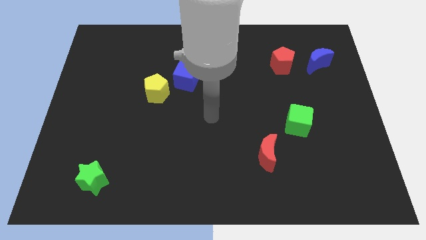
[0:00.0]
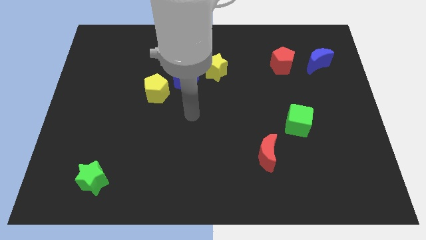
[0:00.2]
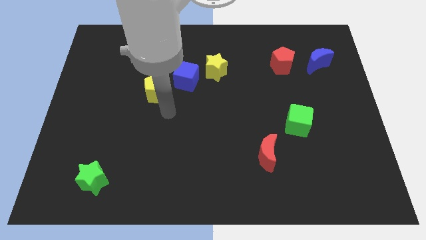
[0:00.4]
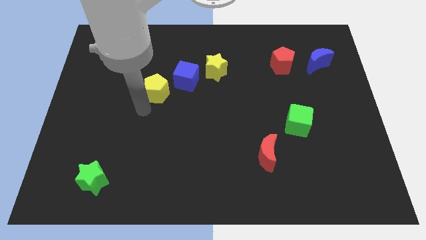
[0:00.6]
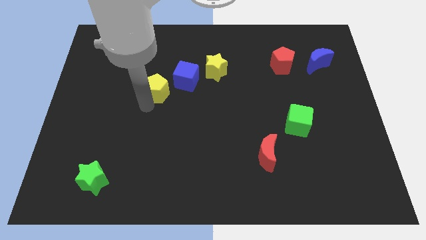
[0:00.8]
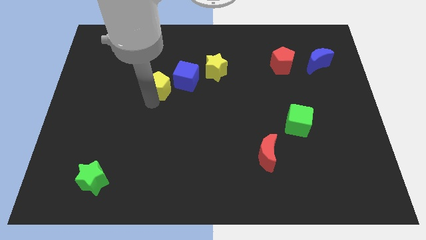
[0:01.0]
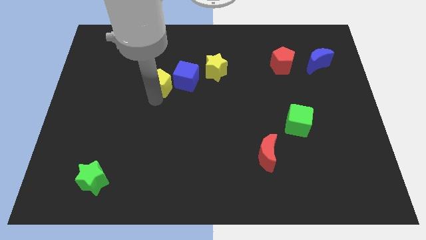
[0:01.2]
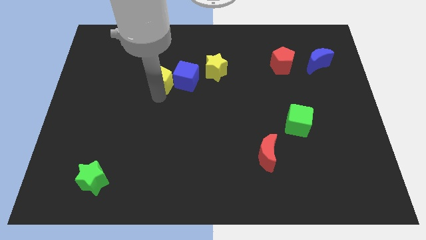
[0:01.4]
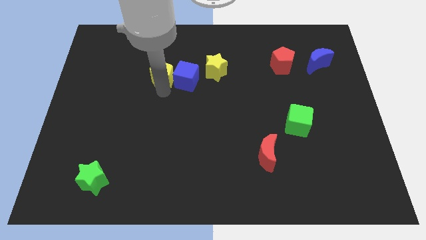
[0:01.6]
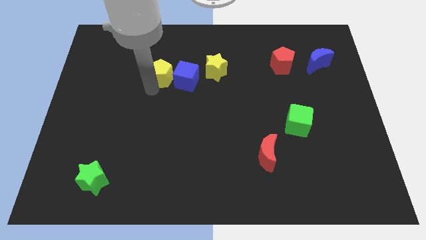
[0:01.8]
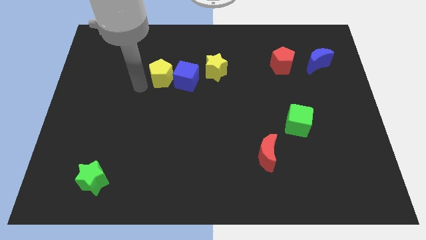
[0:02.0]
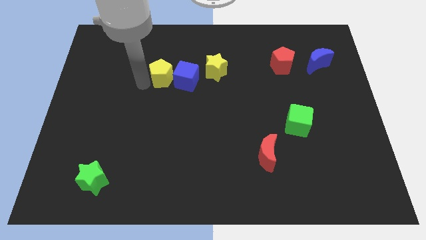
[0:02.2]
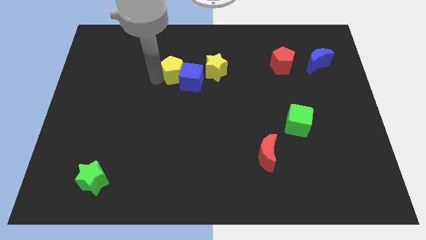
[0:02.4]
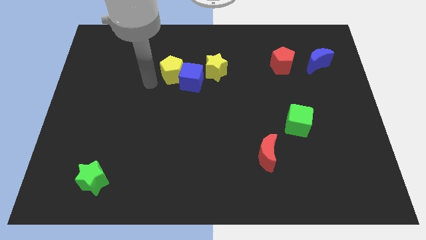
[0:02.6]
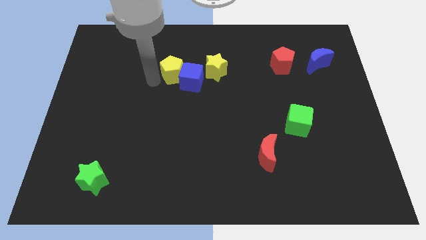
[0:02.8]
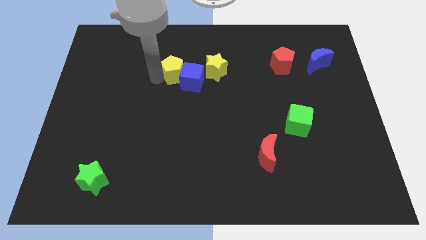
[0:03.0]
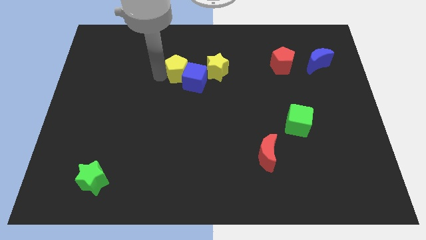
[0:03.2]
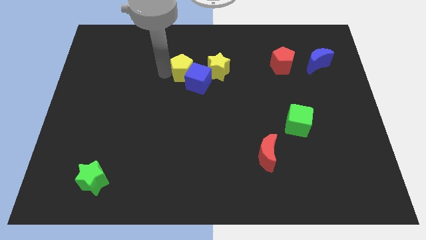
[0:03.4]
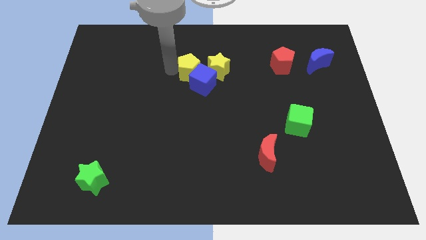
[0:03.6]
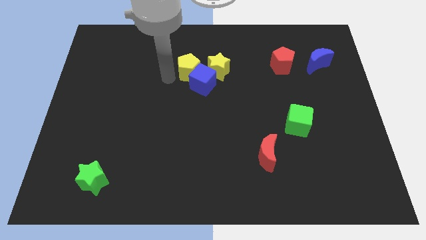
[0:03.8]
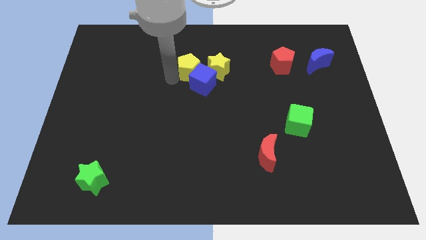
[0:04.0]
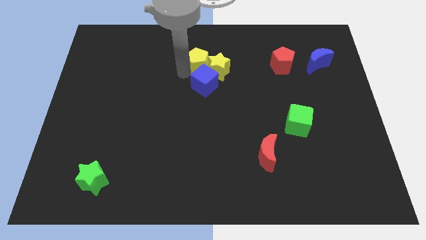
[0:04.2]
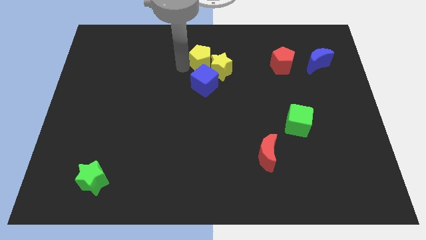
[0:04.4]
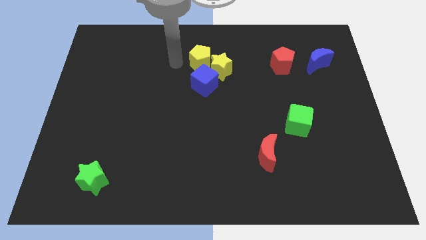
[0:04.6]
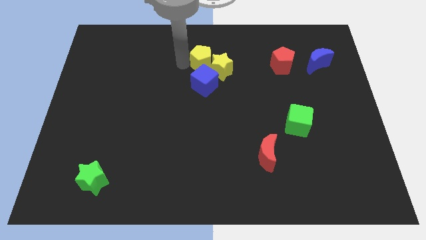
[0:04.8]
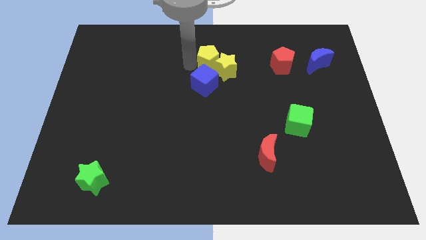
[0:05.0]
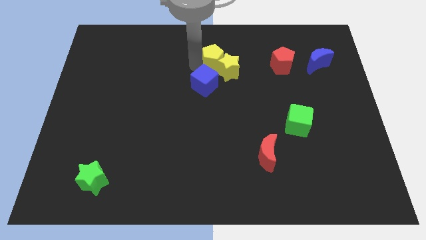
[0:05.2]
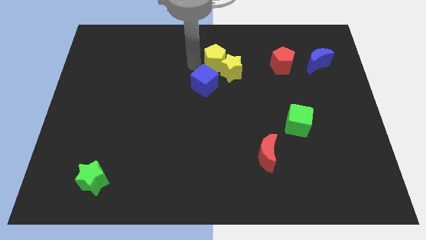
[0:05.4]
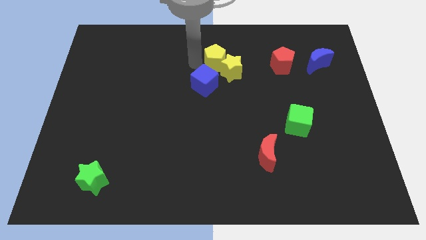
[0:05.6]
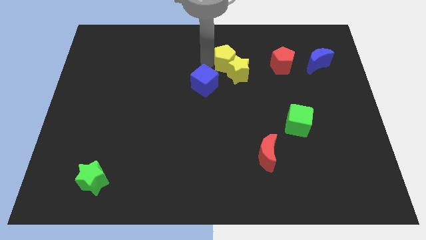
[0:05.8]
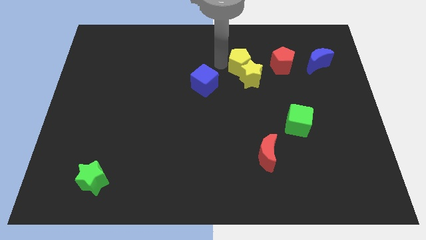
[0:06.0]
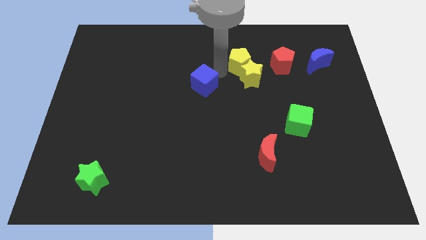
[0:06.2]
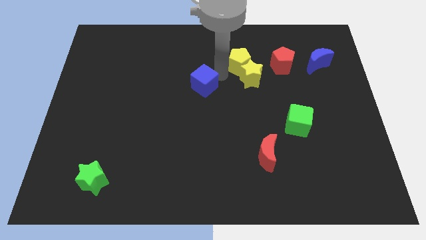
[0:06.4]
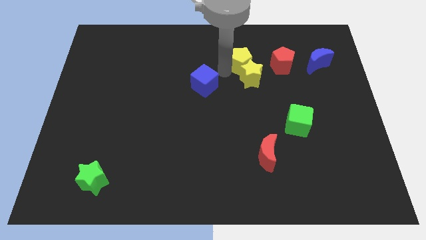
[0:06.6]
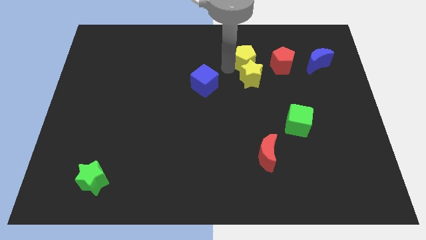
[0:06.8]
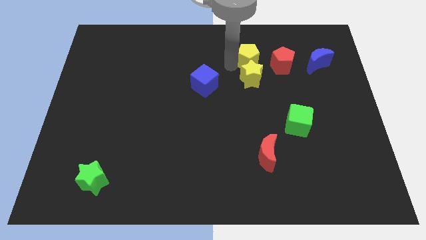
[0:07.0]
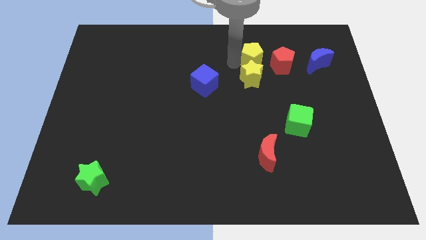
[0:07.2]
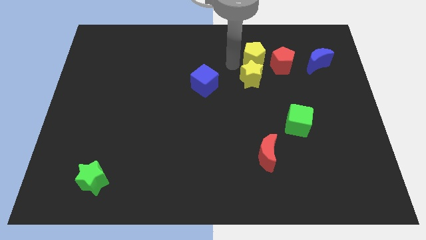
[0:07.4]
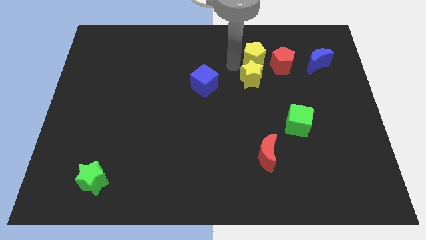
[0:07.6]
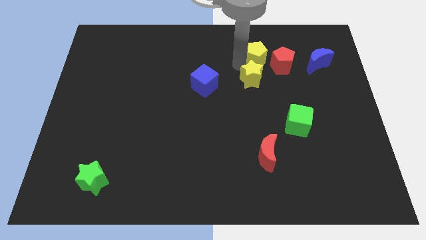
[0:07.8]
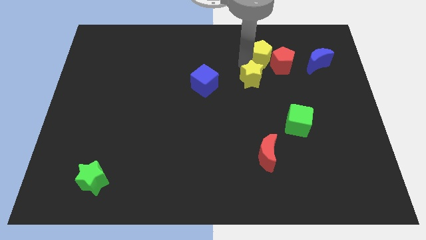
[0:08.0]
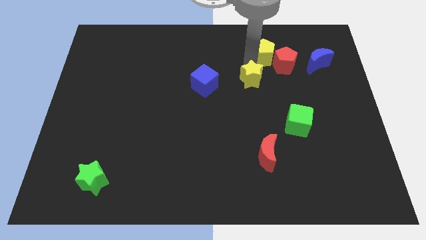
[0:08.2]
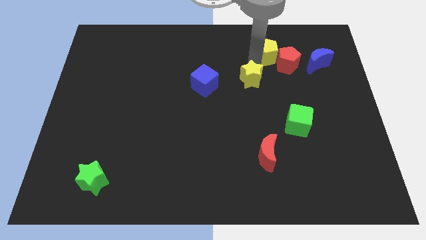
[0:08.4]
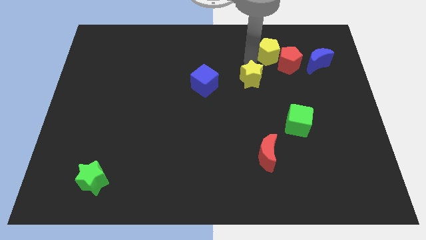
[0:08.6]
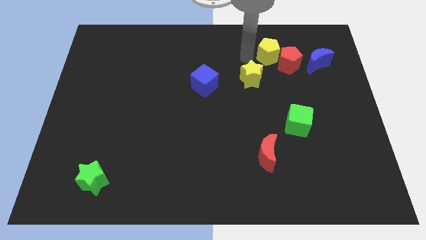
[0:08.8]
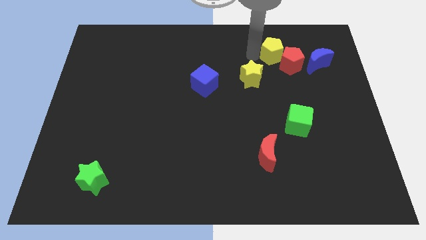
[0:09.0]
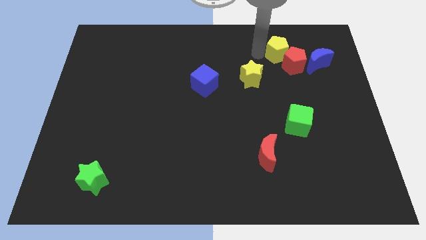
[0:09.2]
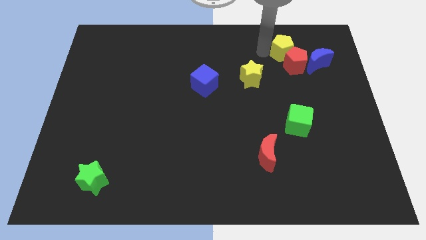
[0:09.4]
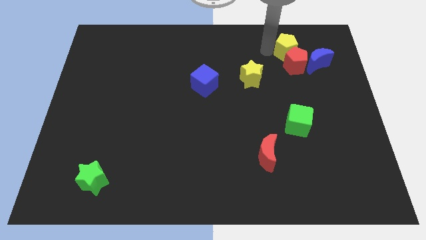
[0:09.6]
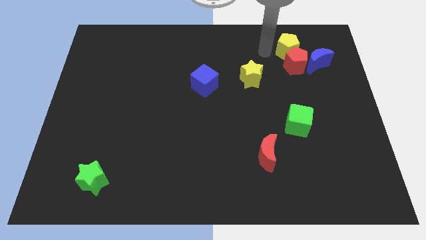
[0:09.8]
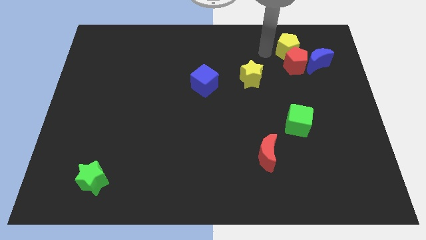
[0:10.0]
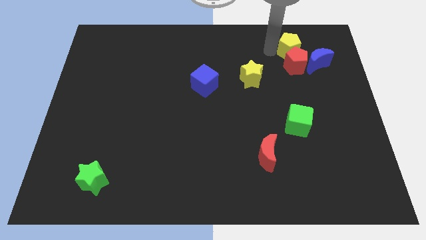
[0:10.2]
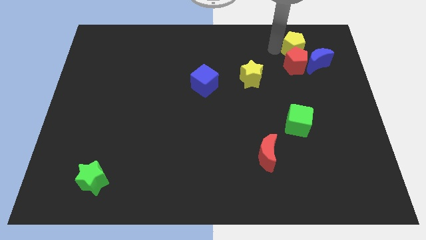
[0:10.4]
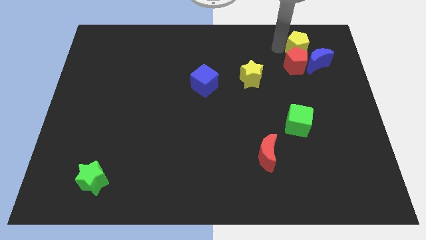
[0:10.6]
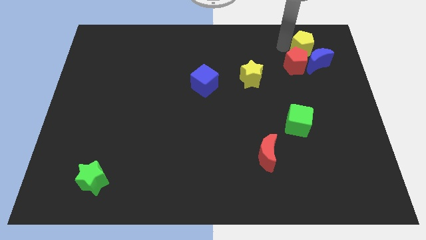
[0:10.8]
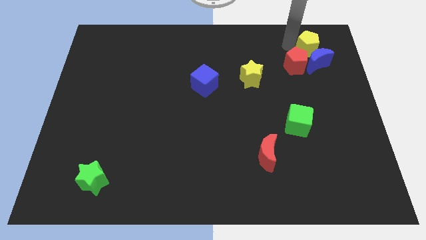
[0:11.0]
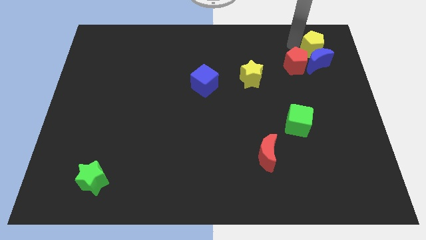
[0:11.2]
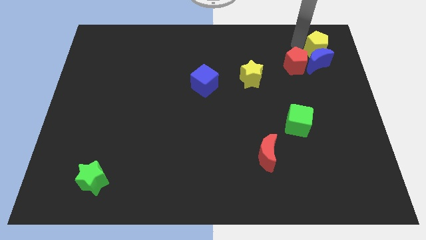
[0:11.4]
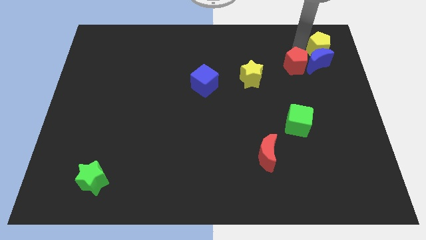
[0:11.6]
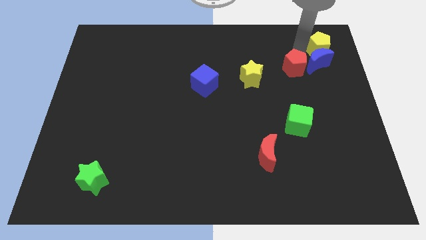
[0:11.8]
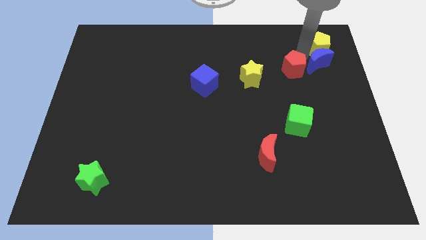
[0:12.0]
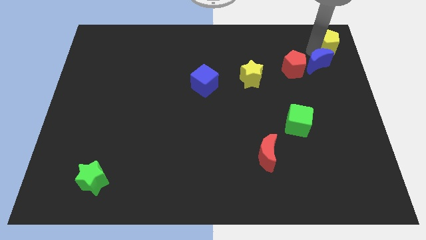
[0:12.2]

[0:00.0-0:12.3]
move the yellow pentagon to the upper right corner

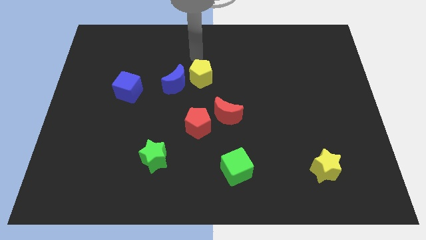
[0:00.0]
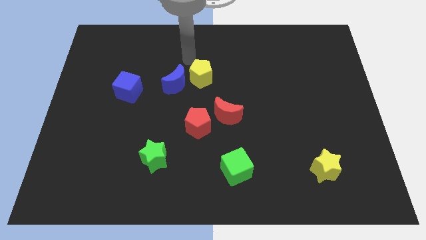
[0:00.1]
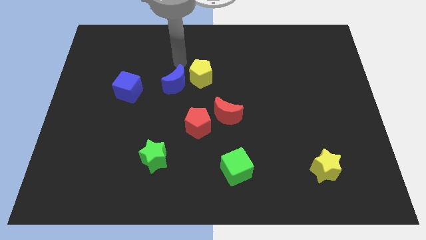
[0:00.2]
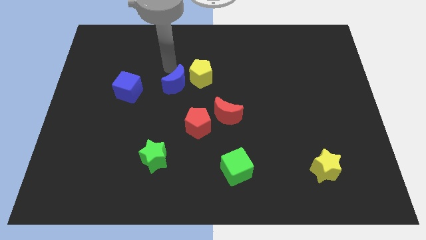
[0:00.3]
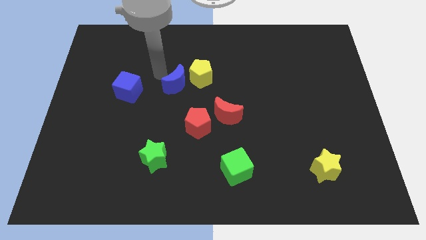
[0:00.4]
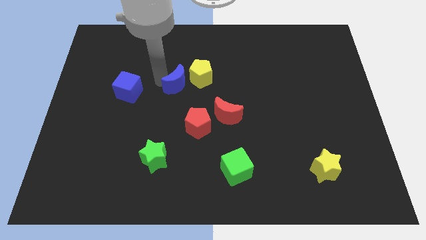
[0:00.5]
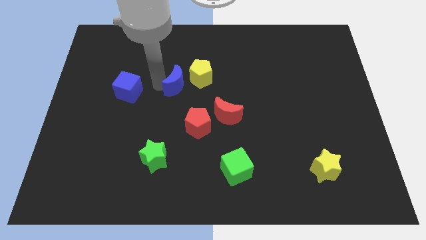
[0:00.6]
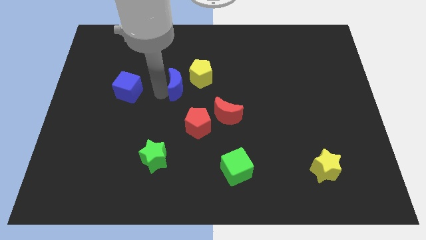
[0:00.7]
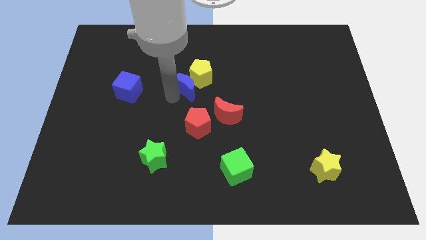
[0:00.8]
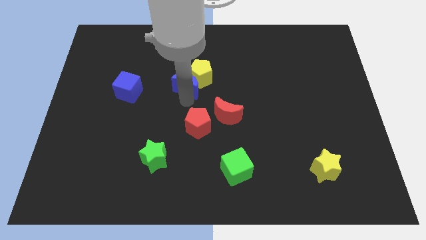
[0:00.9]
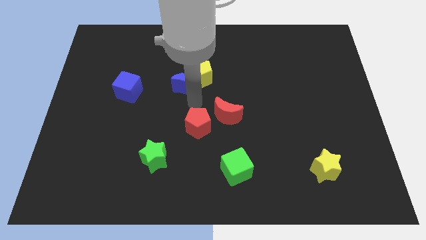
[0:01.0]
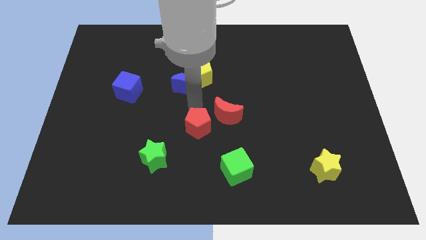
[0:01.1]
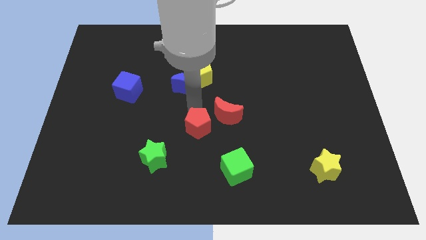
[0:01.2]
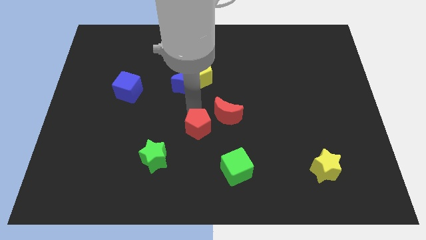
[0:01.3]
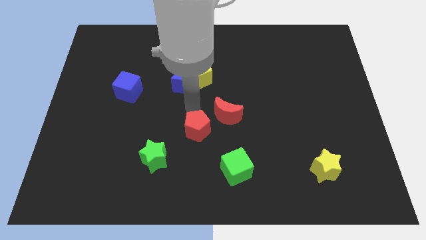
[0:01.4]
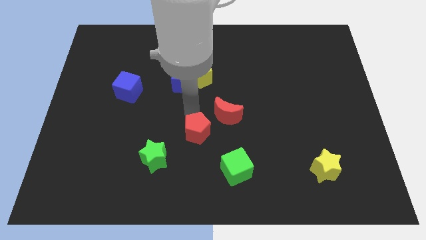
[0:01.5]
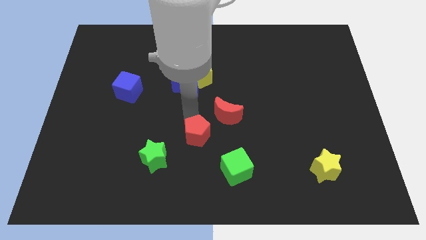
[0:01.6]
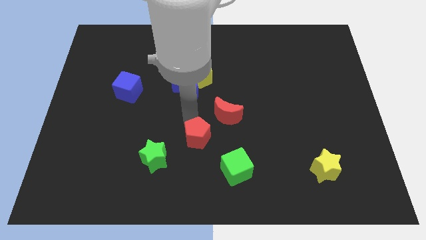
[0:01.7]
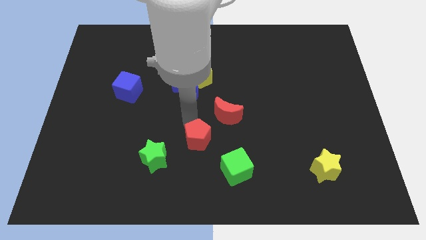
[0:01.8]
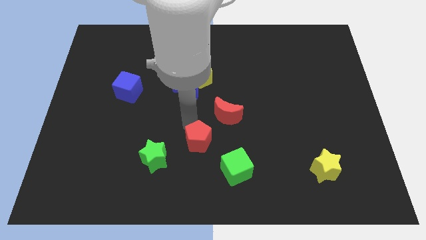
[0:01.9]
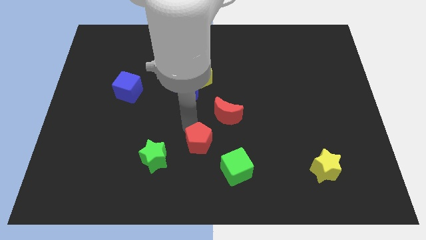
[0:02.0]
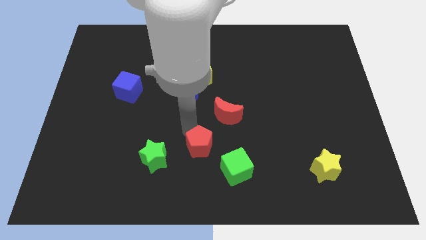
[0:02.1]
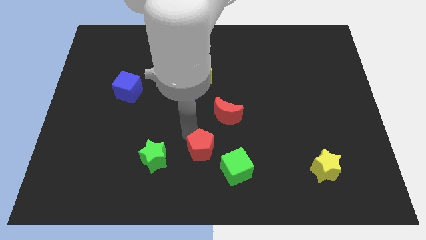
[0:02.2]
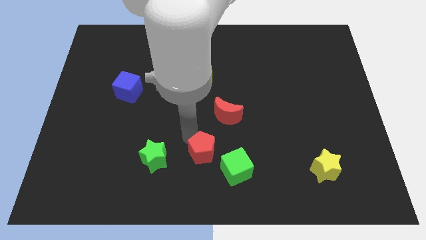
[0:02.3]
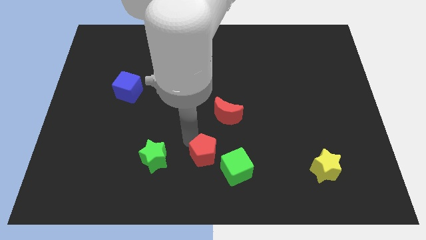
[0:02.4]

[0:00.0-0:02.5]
move the red pentagon to the bottom
